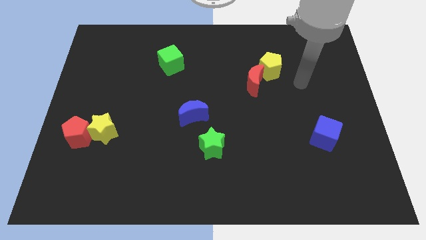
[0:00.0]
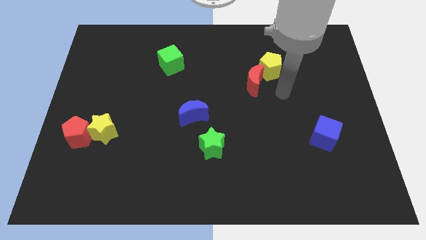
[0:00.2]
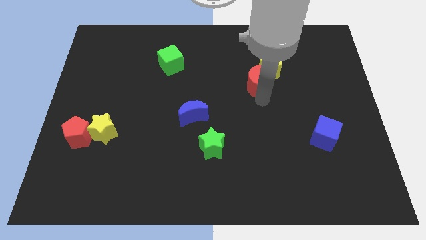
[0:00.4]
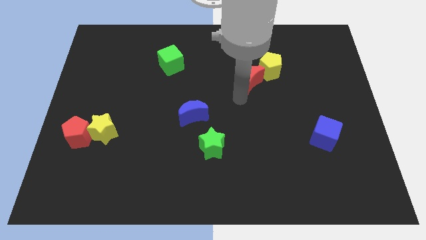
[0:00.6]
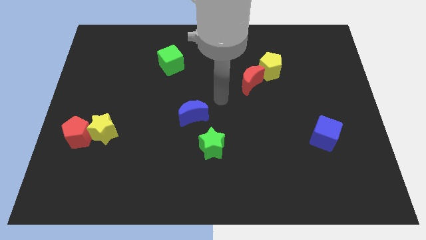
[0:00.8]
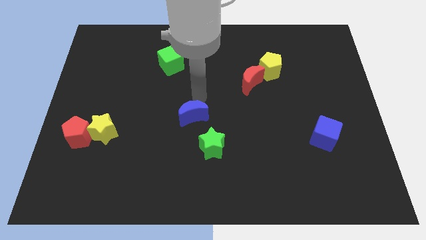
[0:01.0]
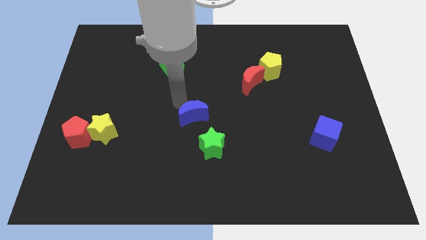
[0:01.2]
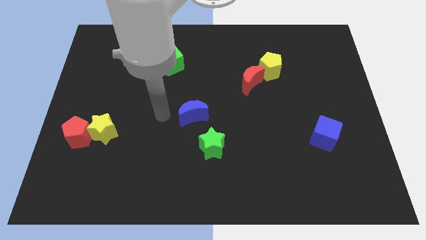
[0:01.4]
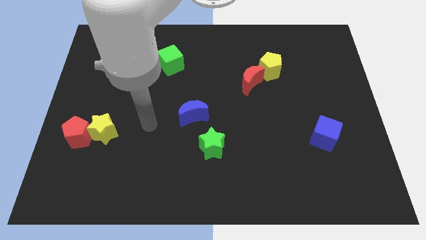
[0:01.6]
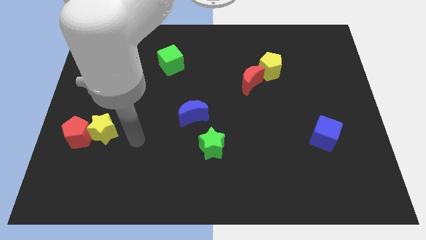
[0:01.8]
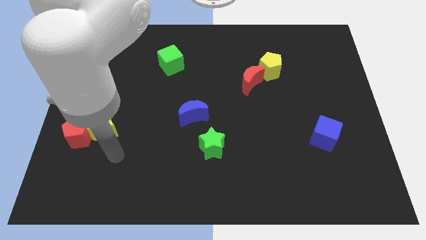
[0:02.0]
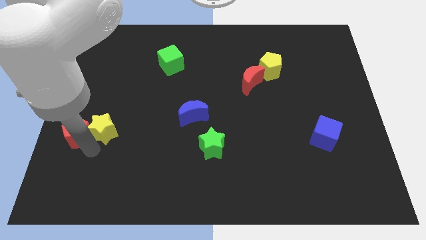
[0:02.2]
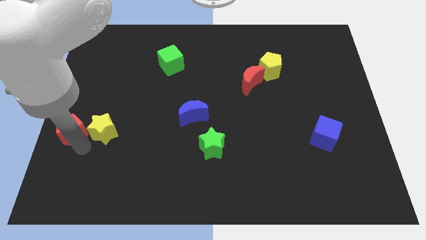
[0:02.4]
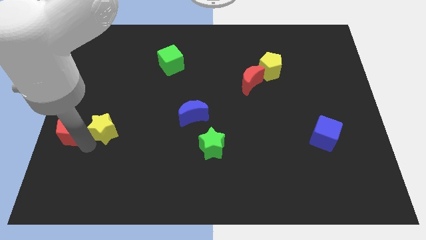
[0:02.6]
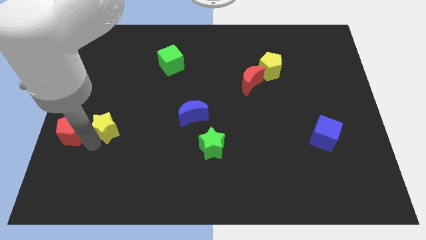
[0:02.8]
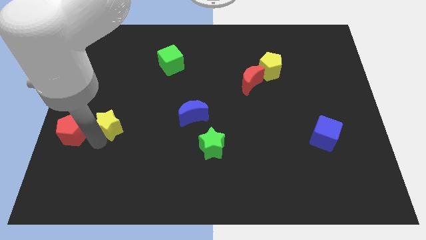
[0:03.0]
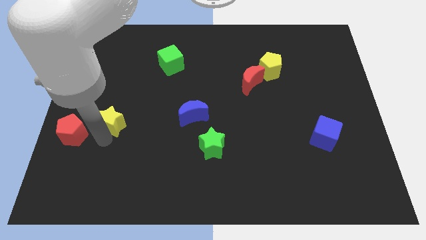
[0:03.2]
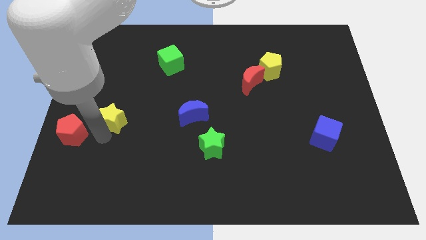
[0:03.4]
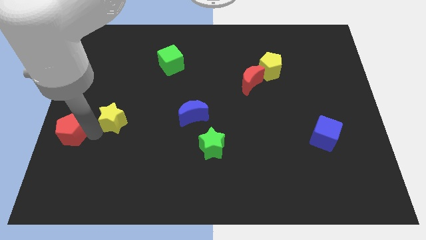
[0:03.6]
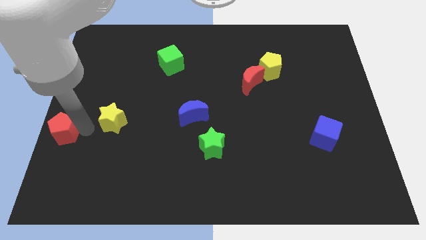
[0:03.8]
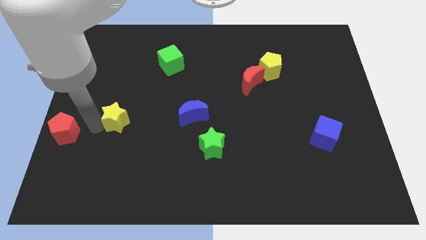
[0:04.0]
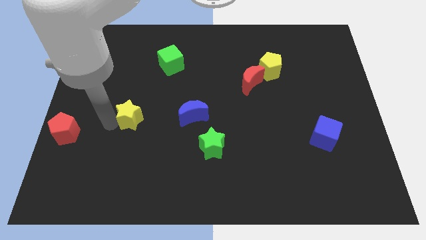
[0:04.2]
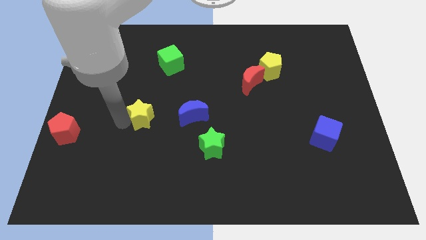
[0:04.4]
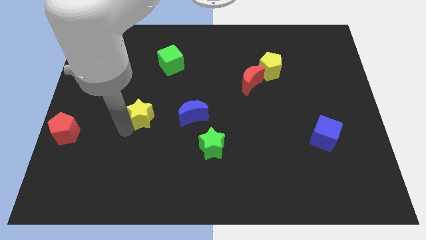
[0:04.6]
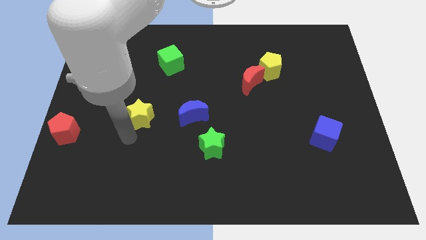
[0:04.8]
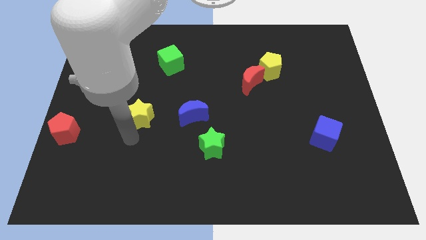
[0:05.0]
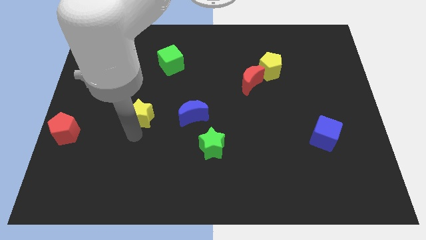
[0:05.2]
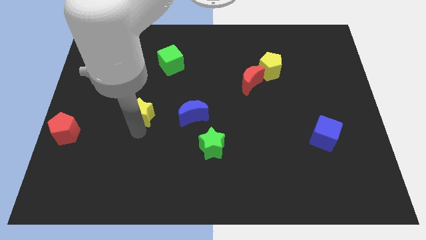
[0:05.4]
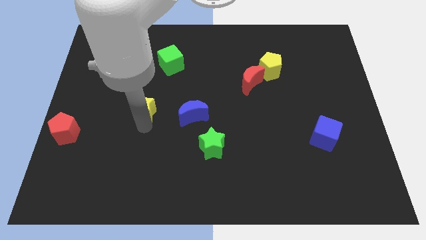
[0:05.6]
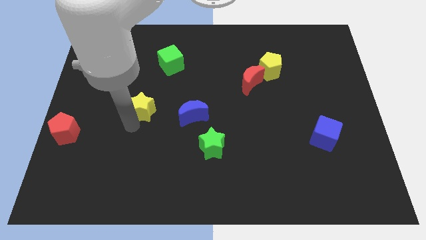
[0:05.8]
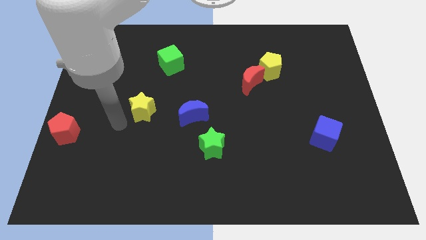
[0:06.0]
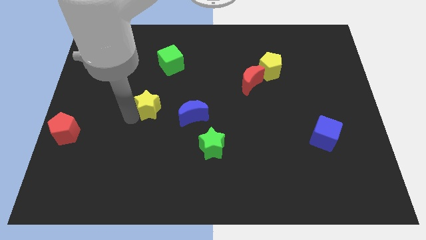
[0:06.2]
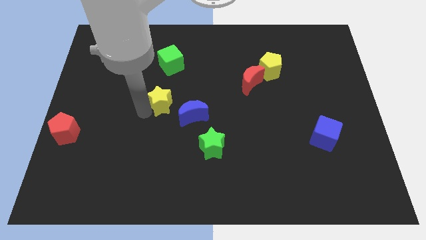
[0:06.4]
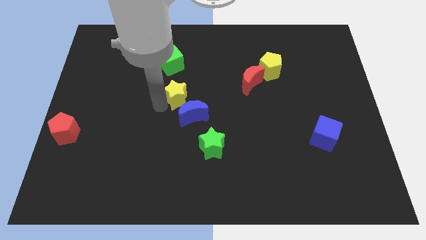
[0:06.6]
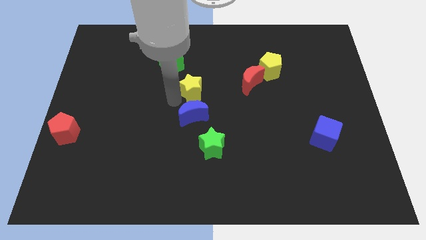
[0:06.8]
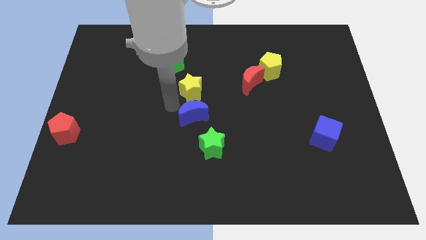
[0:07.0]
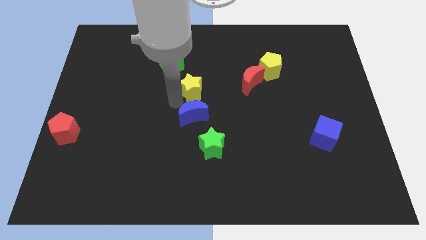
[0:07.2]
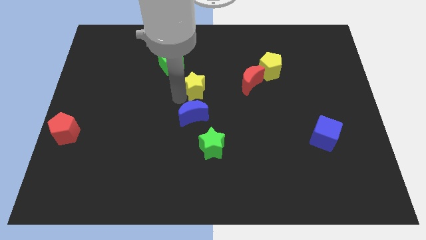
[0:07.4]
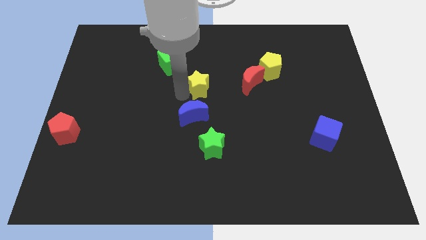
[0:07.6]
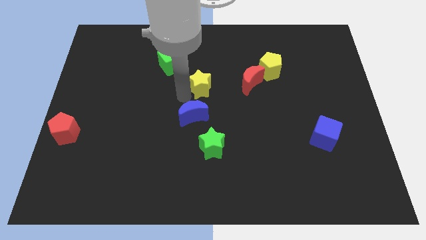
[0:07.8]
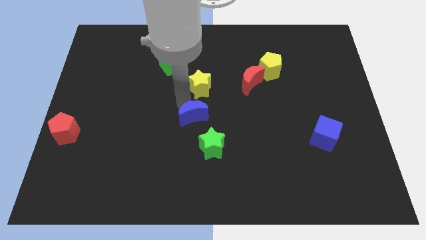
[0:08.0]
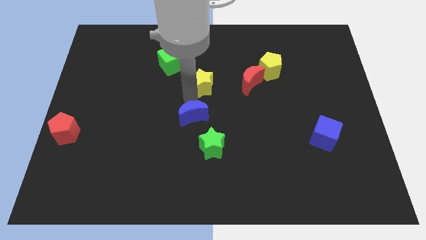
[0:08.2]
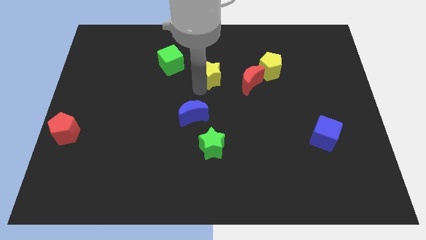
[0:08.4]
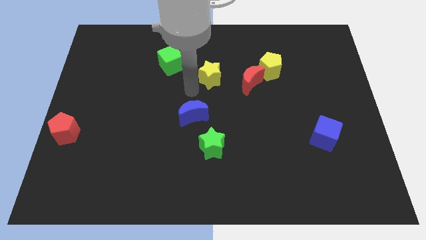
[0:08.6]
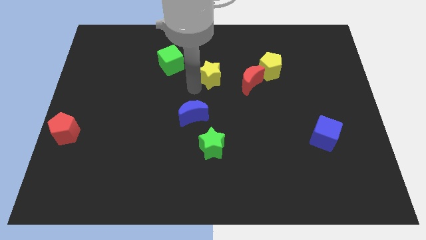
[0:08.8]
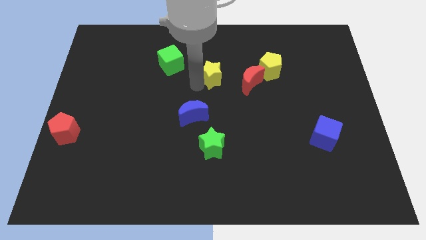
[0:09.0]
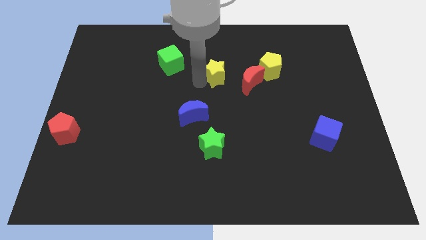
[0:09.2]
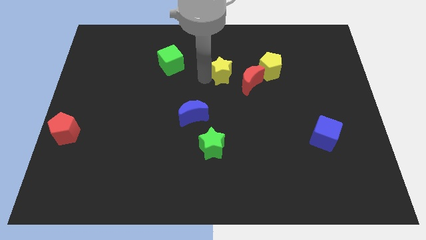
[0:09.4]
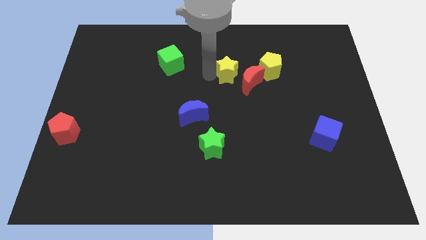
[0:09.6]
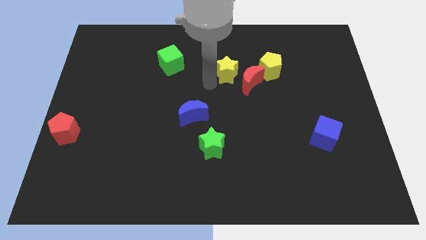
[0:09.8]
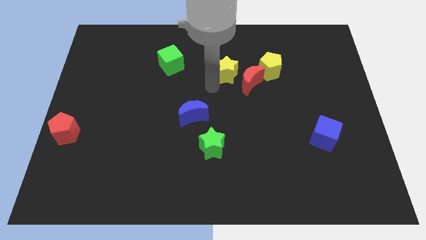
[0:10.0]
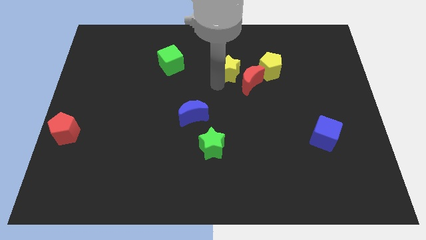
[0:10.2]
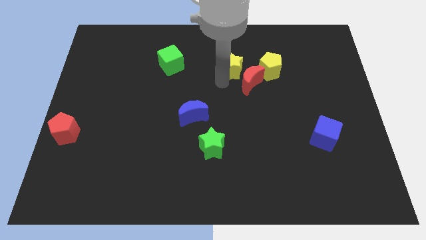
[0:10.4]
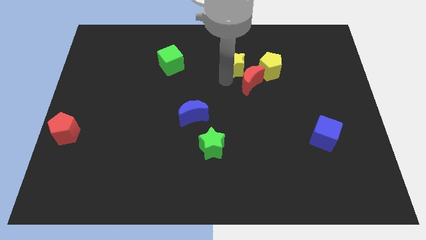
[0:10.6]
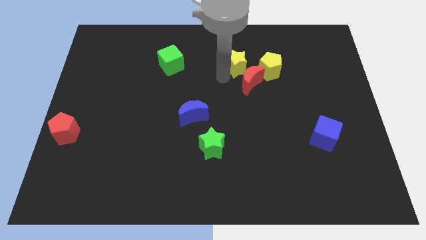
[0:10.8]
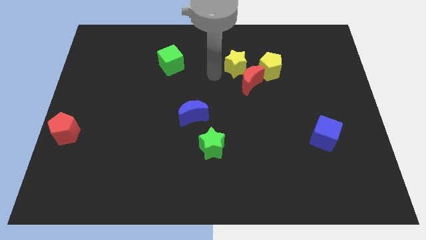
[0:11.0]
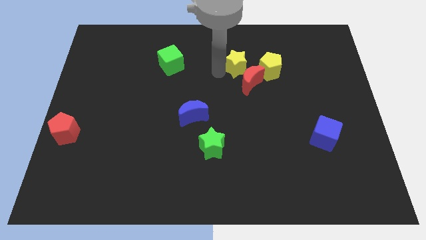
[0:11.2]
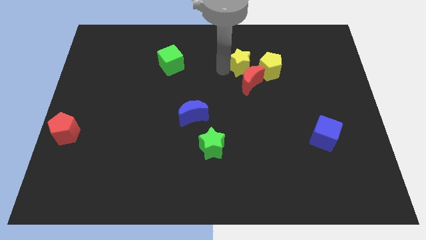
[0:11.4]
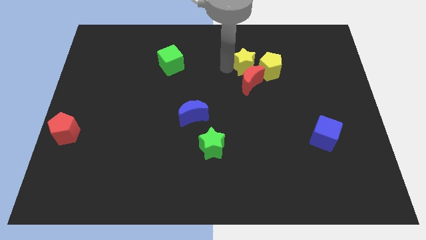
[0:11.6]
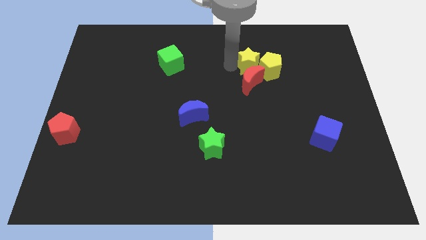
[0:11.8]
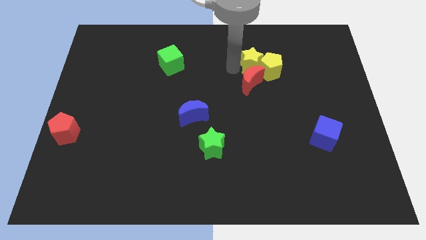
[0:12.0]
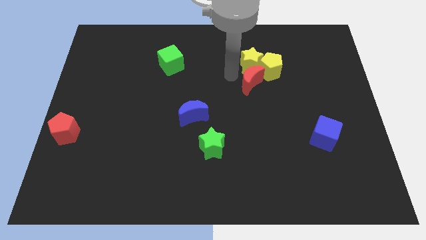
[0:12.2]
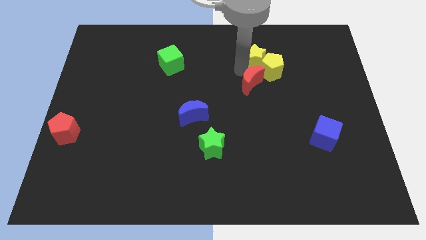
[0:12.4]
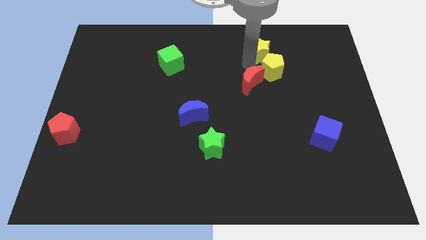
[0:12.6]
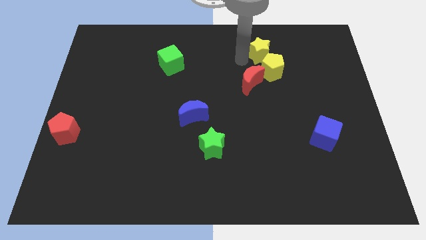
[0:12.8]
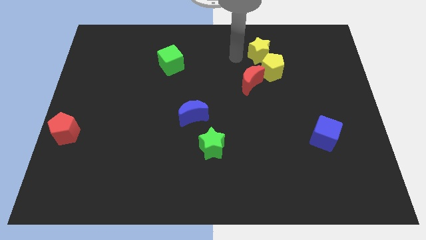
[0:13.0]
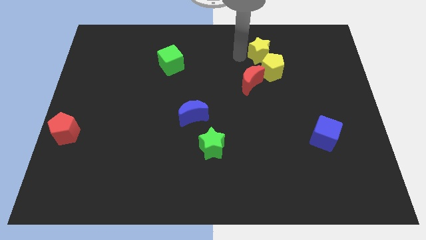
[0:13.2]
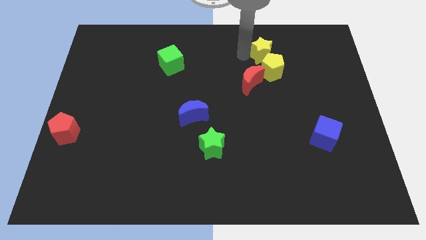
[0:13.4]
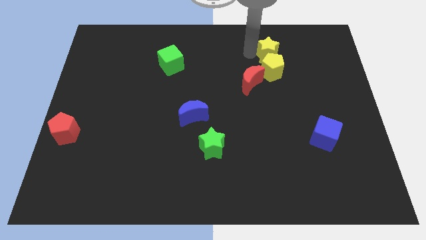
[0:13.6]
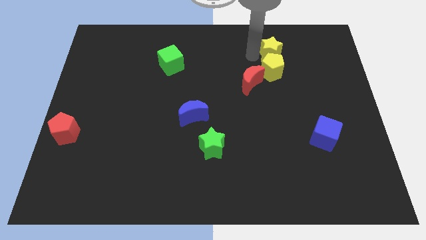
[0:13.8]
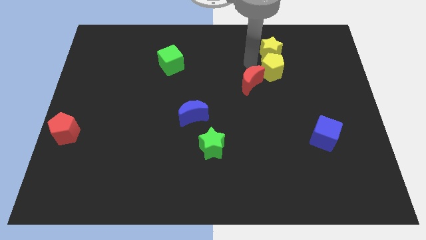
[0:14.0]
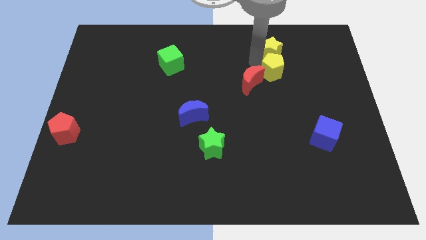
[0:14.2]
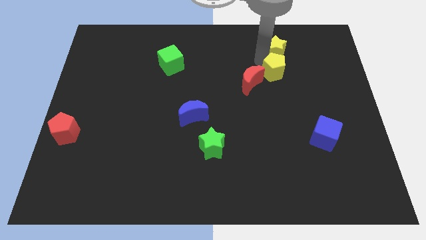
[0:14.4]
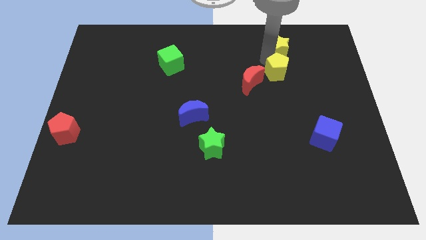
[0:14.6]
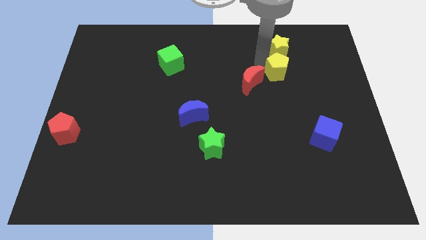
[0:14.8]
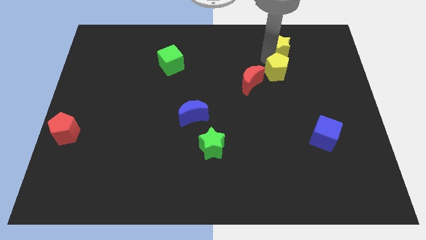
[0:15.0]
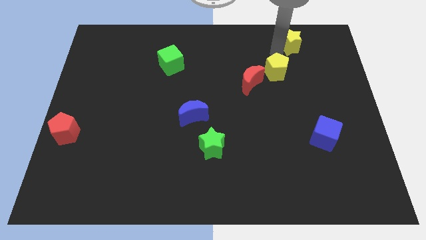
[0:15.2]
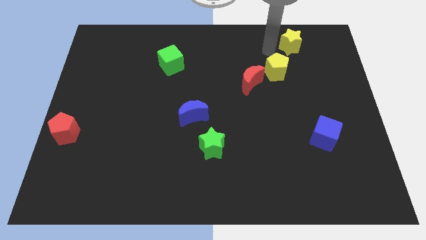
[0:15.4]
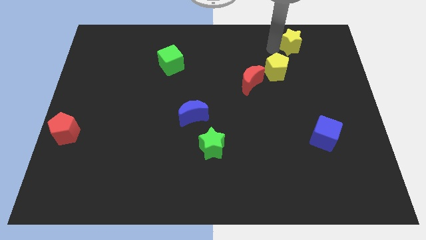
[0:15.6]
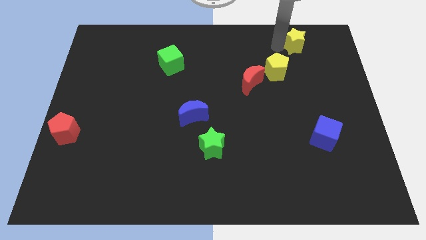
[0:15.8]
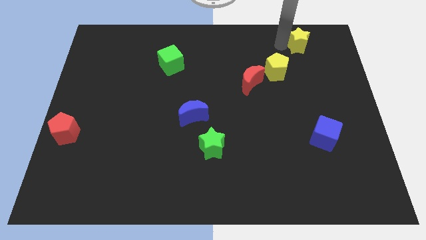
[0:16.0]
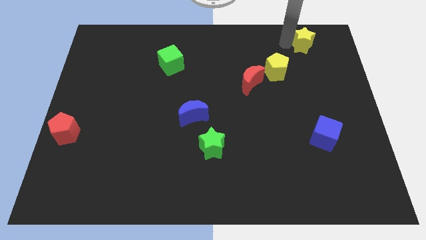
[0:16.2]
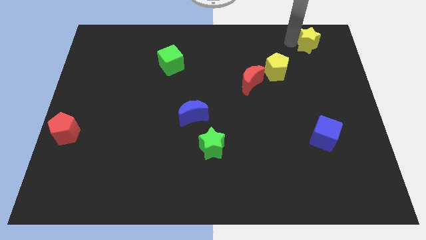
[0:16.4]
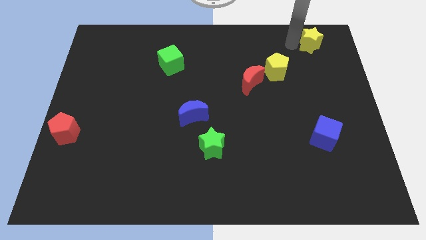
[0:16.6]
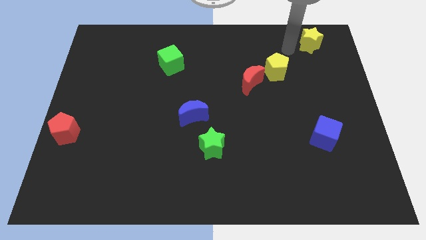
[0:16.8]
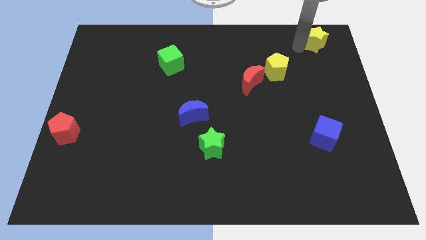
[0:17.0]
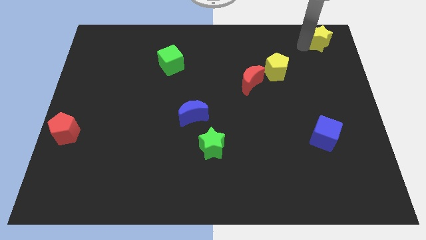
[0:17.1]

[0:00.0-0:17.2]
put the yellow star to the upper right corner
